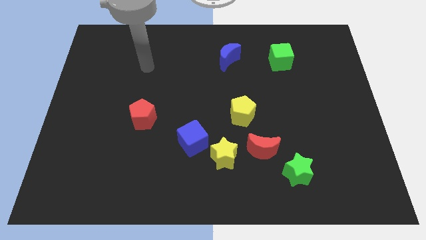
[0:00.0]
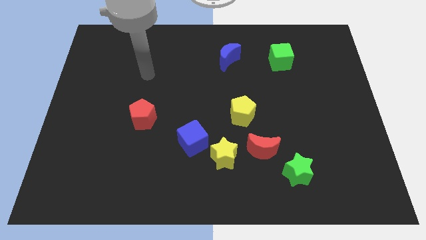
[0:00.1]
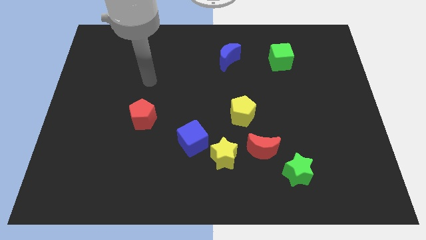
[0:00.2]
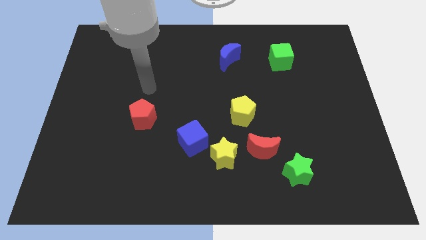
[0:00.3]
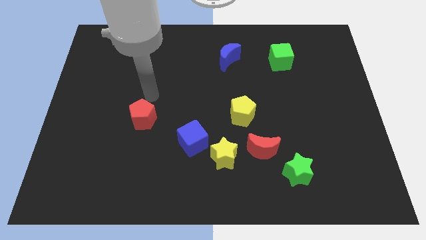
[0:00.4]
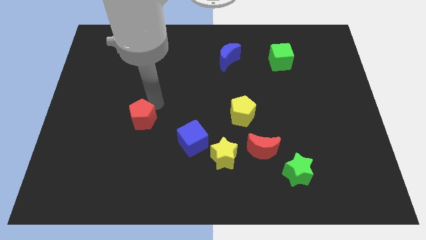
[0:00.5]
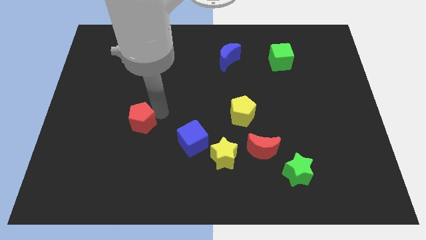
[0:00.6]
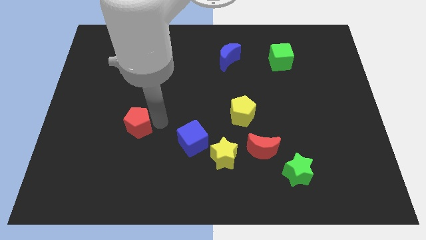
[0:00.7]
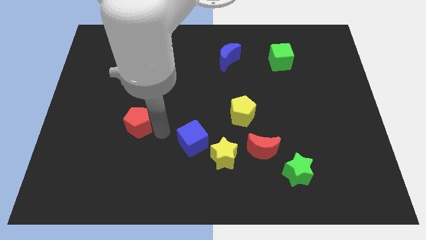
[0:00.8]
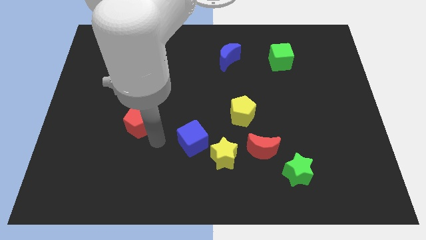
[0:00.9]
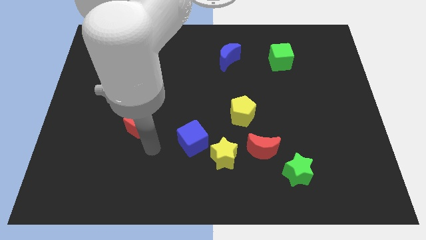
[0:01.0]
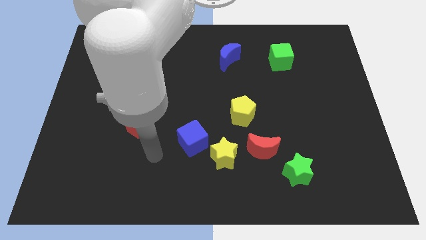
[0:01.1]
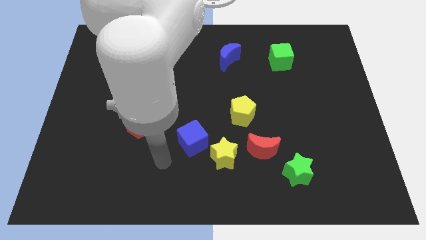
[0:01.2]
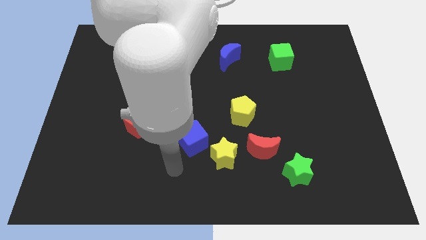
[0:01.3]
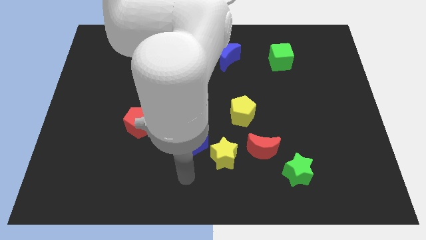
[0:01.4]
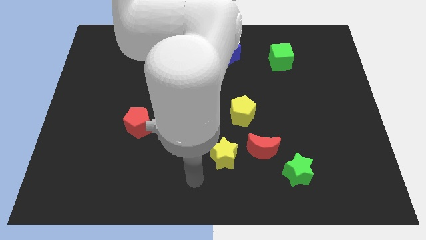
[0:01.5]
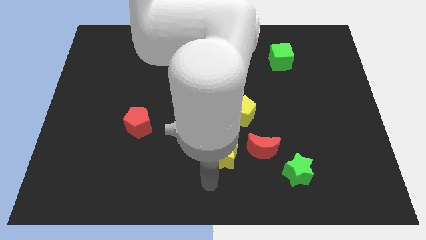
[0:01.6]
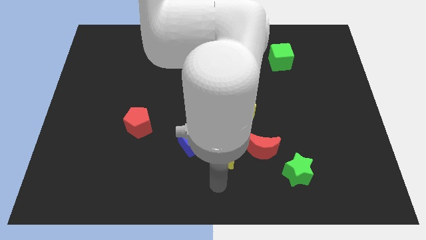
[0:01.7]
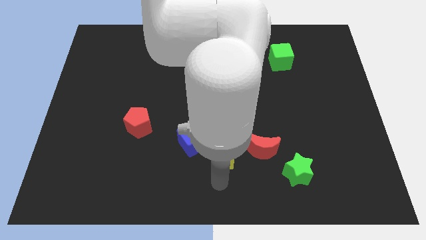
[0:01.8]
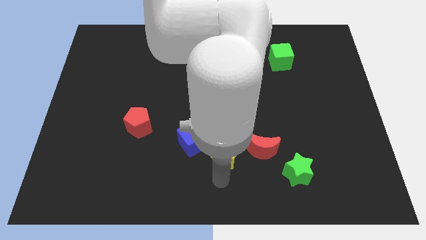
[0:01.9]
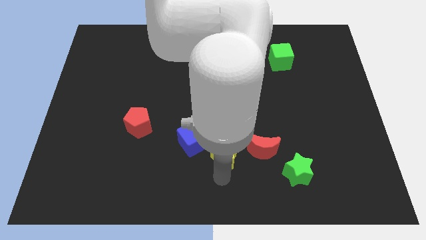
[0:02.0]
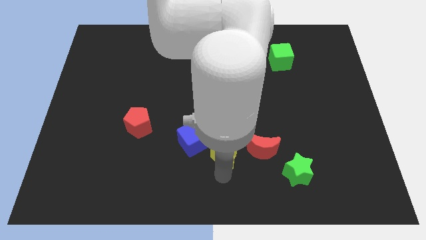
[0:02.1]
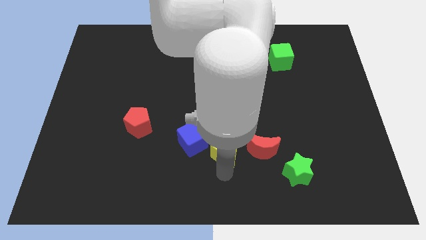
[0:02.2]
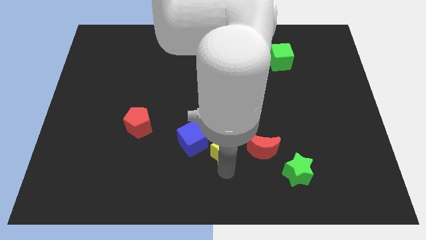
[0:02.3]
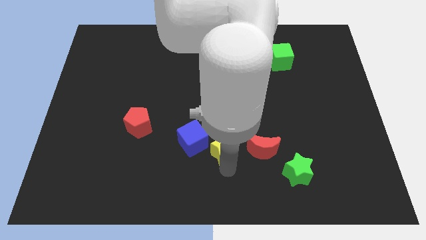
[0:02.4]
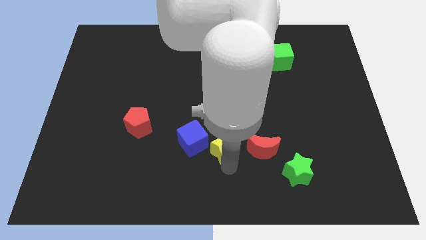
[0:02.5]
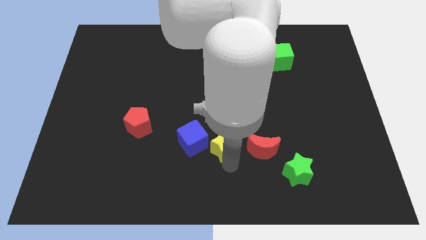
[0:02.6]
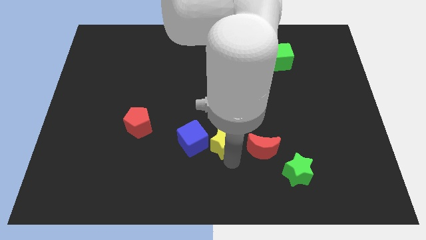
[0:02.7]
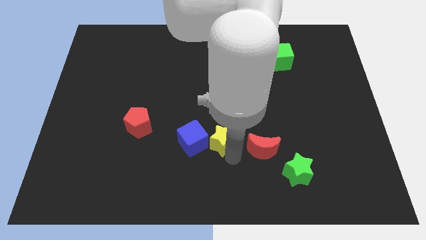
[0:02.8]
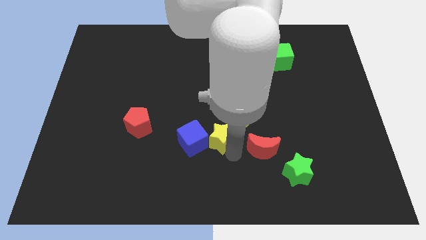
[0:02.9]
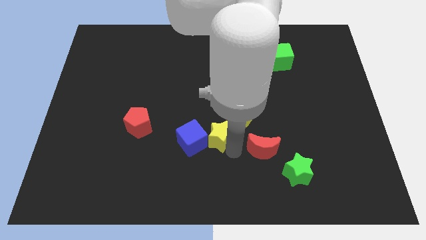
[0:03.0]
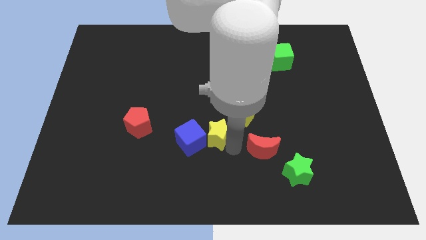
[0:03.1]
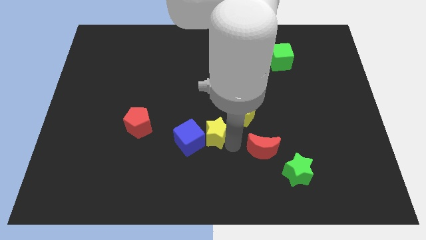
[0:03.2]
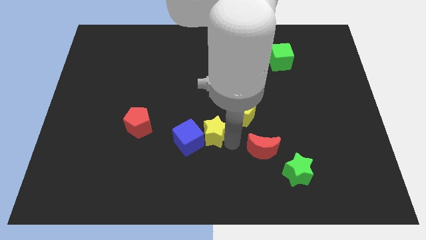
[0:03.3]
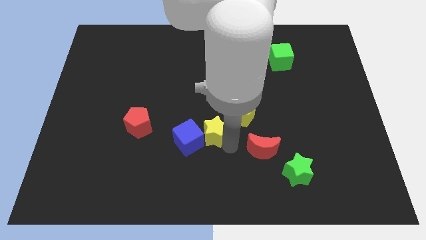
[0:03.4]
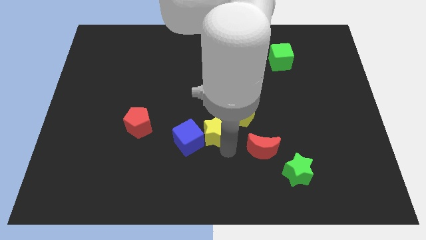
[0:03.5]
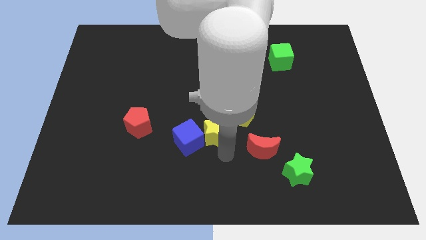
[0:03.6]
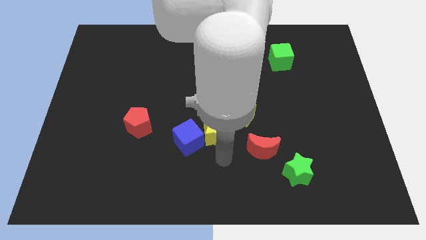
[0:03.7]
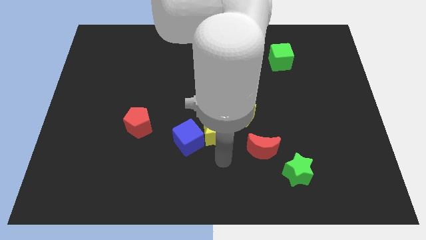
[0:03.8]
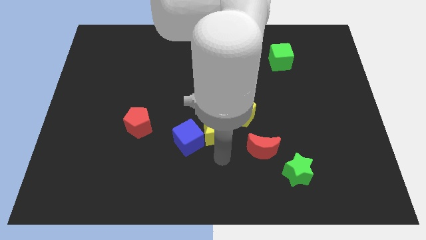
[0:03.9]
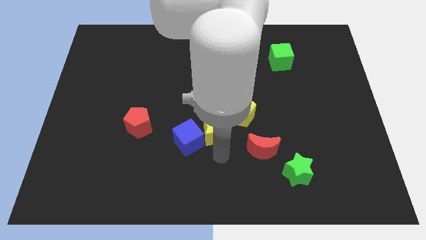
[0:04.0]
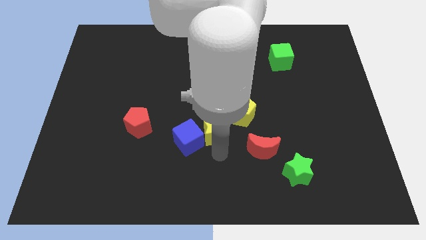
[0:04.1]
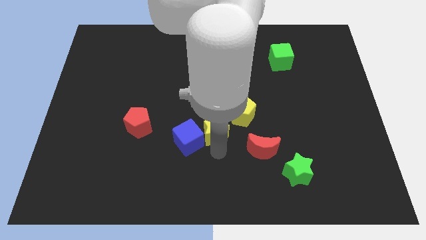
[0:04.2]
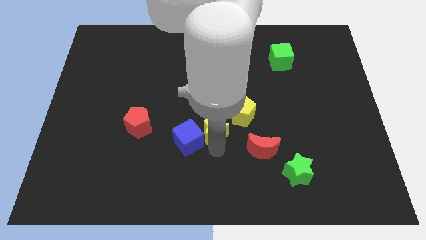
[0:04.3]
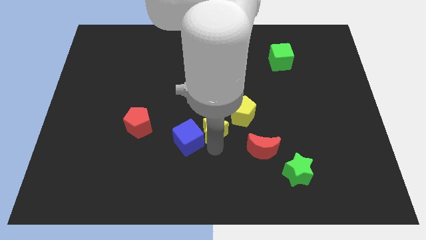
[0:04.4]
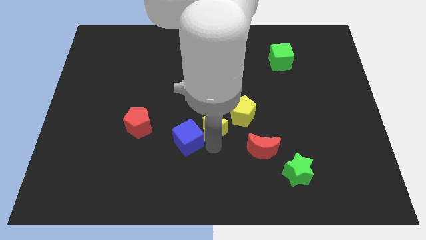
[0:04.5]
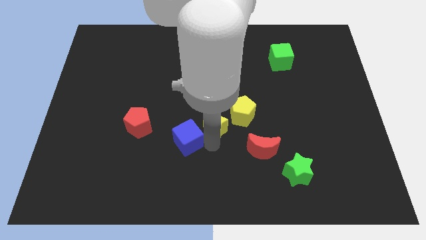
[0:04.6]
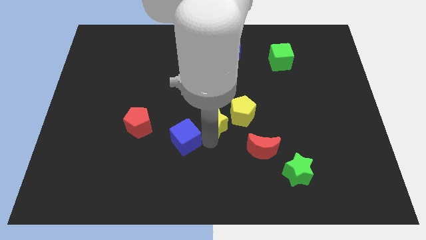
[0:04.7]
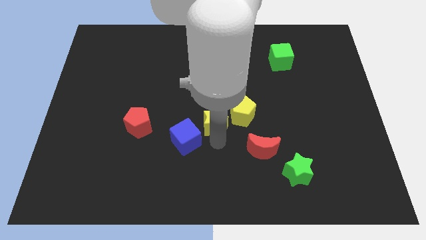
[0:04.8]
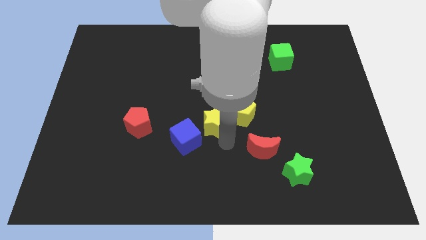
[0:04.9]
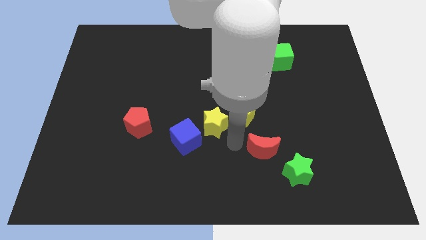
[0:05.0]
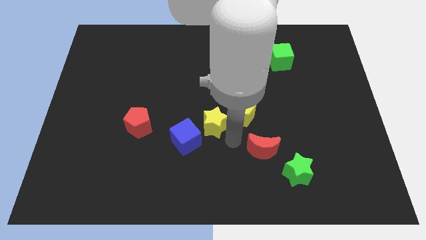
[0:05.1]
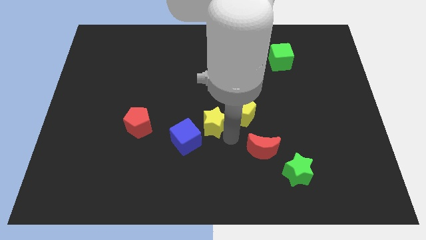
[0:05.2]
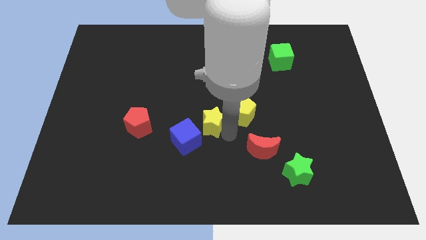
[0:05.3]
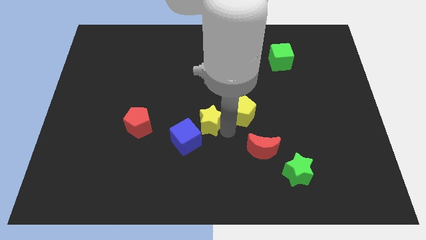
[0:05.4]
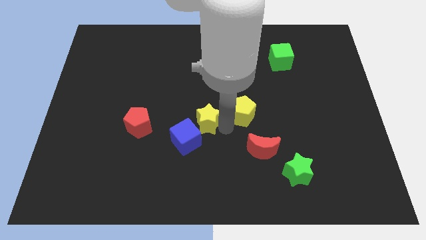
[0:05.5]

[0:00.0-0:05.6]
move the yellow star above the blue cube

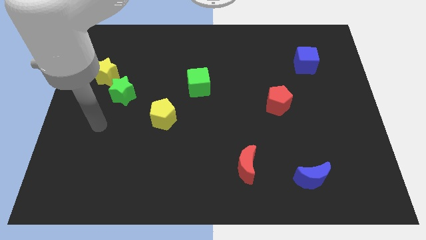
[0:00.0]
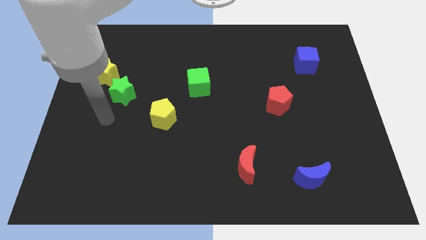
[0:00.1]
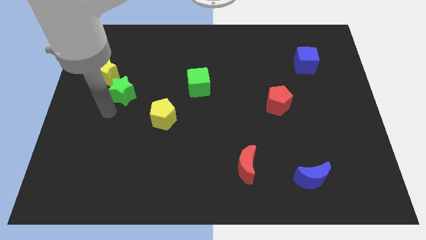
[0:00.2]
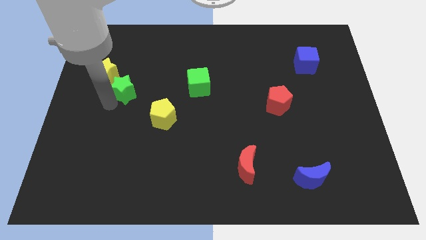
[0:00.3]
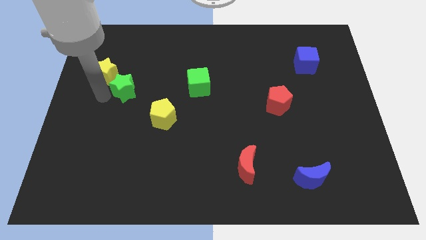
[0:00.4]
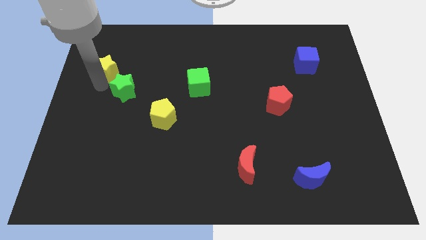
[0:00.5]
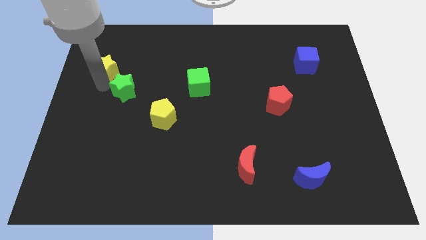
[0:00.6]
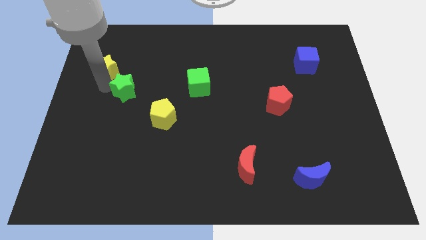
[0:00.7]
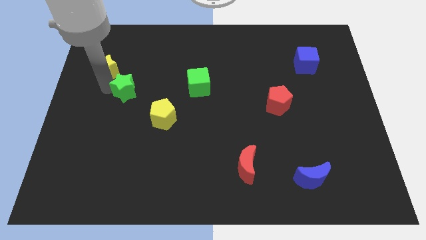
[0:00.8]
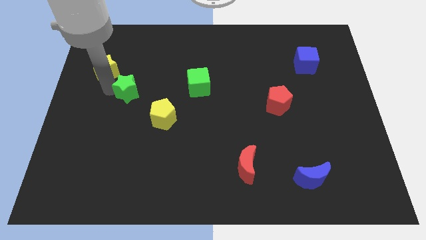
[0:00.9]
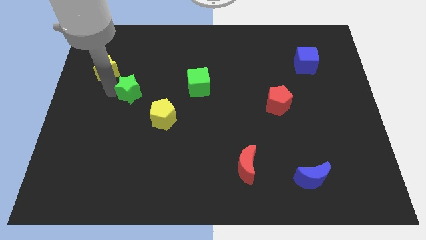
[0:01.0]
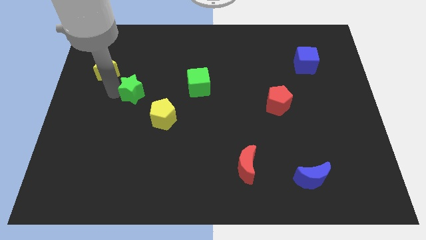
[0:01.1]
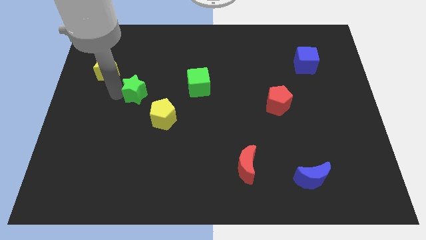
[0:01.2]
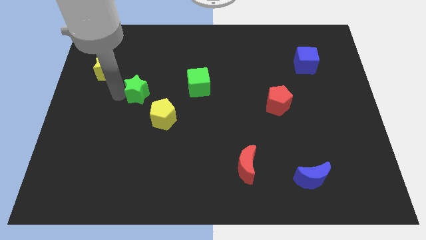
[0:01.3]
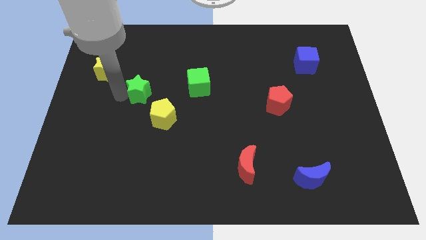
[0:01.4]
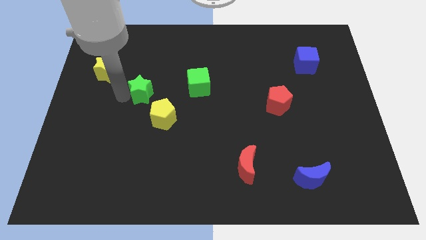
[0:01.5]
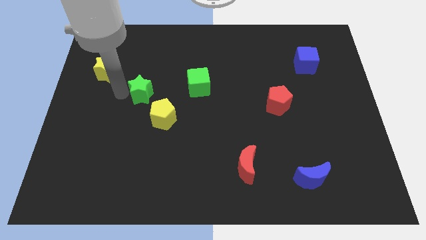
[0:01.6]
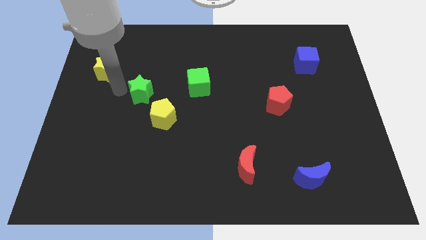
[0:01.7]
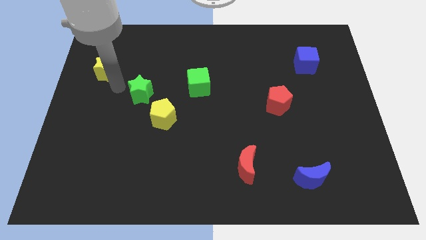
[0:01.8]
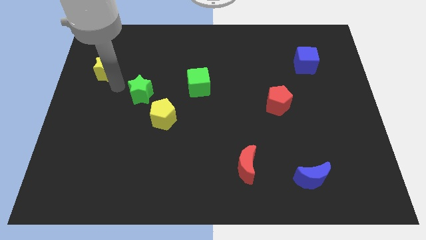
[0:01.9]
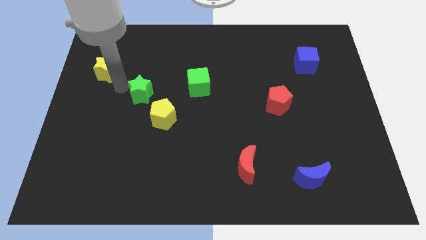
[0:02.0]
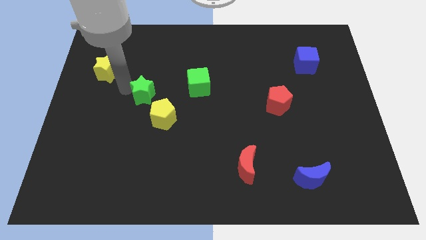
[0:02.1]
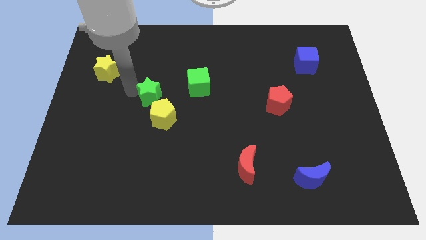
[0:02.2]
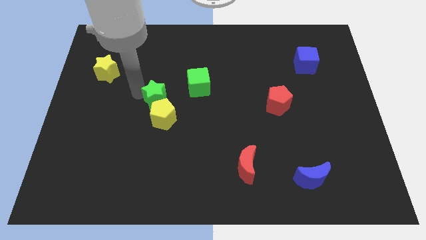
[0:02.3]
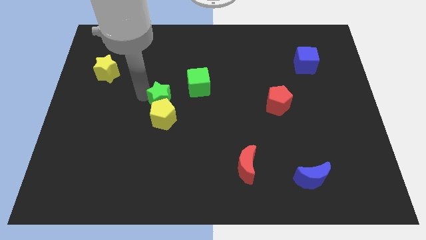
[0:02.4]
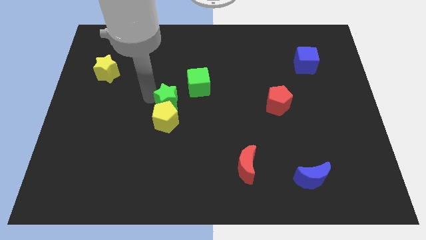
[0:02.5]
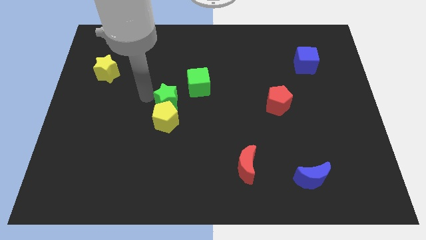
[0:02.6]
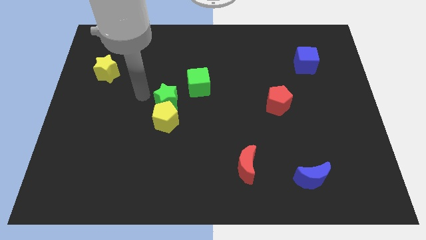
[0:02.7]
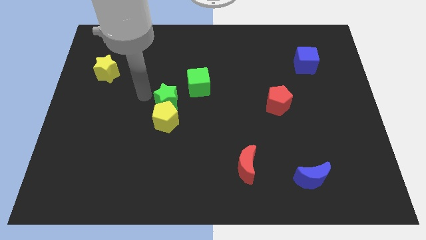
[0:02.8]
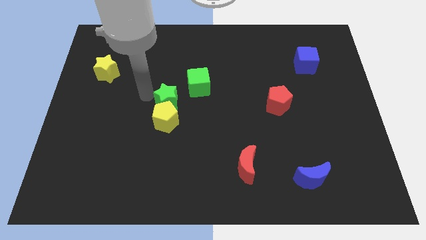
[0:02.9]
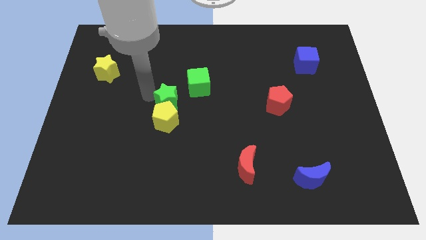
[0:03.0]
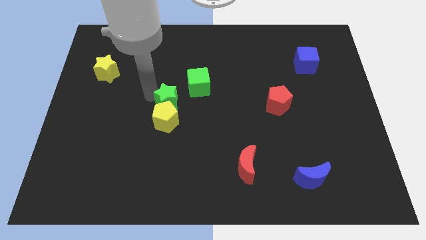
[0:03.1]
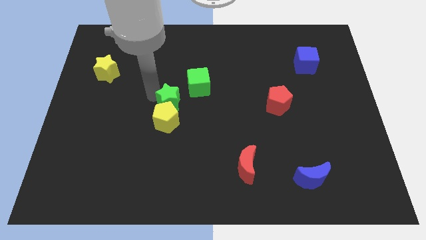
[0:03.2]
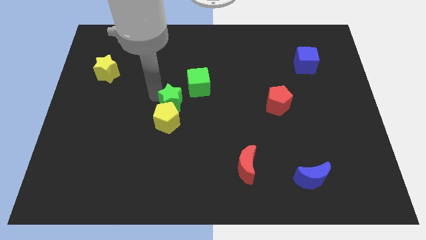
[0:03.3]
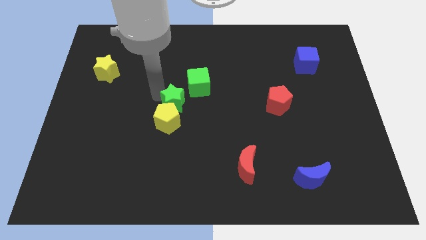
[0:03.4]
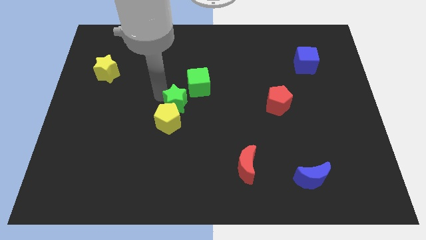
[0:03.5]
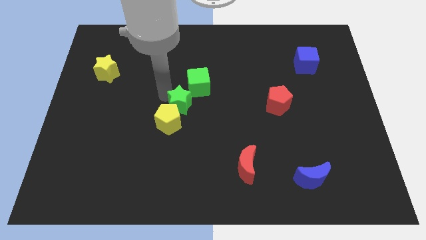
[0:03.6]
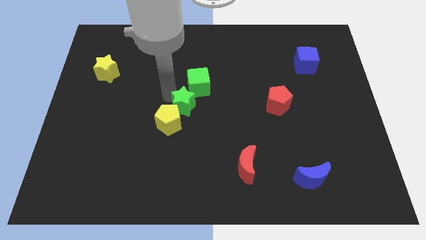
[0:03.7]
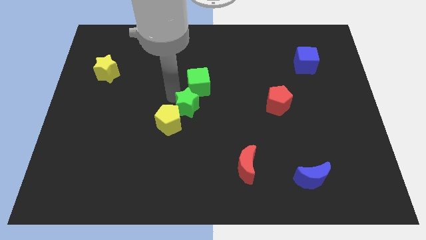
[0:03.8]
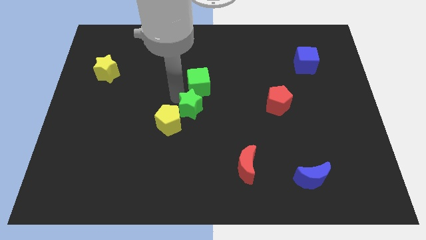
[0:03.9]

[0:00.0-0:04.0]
slide the green star right of the yellow pentagon
